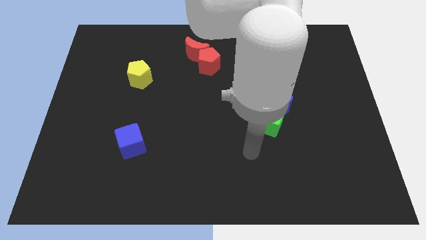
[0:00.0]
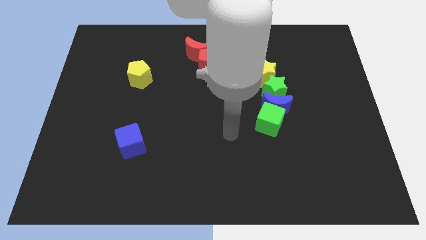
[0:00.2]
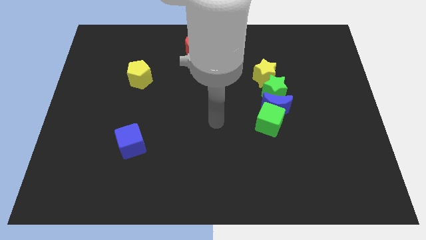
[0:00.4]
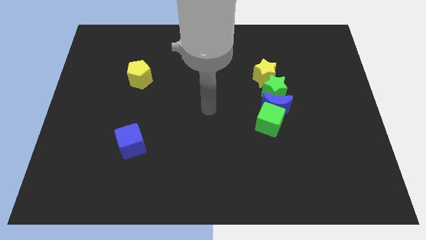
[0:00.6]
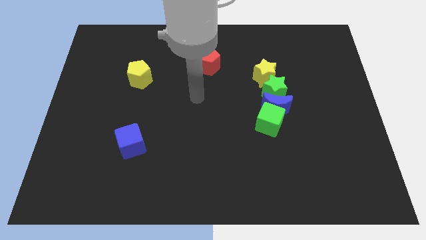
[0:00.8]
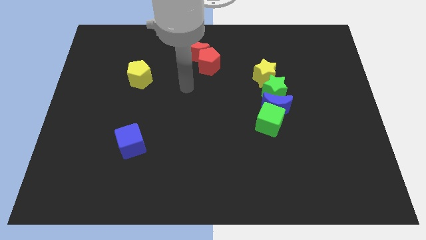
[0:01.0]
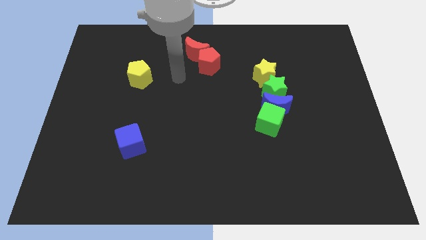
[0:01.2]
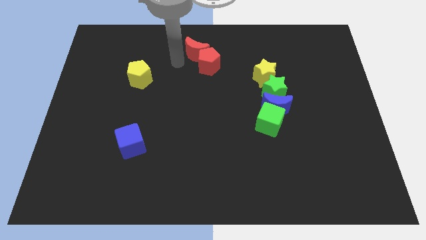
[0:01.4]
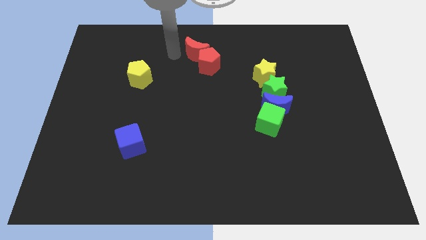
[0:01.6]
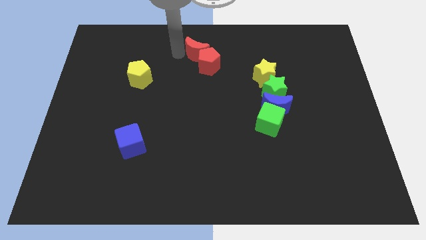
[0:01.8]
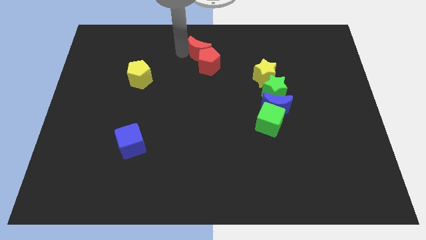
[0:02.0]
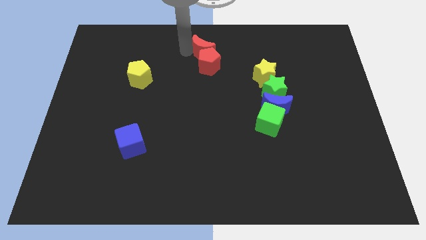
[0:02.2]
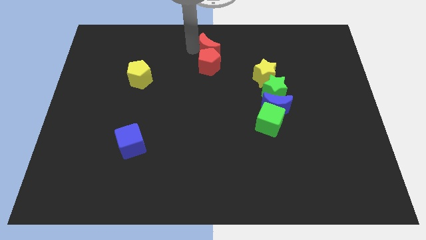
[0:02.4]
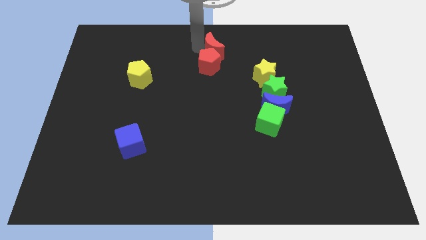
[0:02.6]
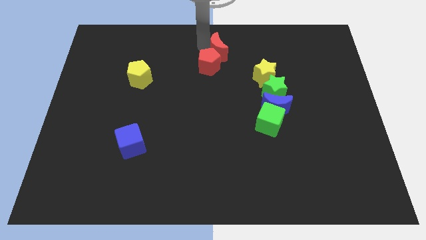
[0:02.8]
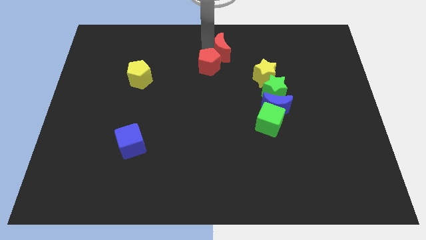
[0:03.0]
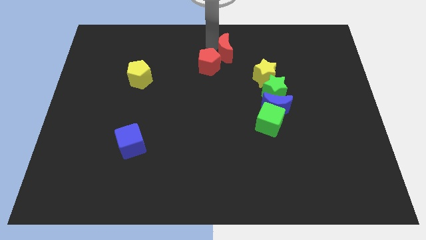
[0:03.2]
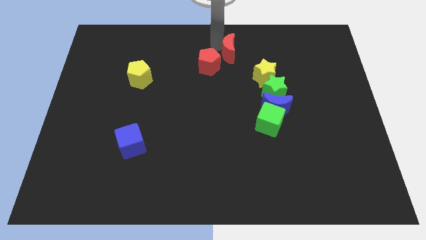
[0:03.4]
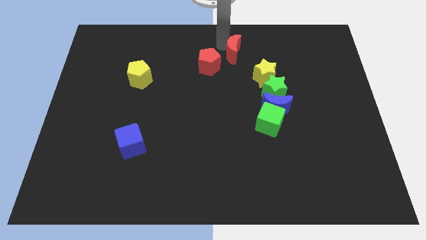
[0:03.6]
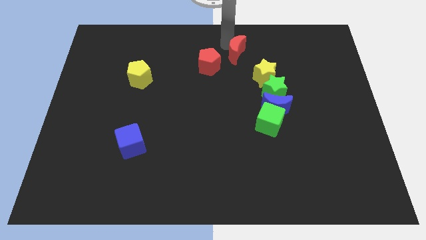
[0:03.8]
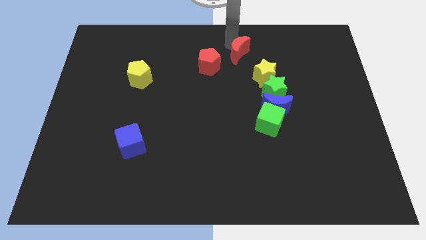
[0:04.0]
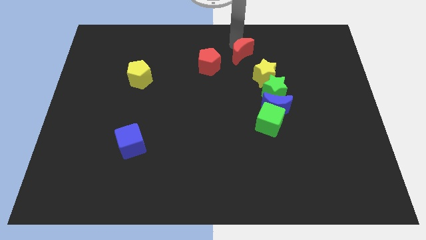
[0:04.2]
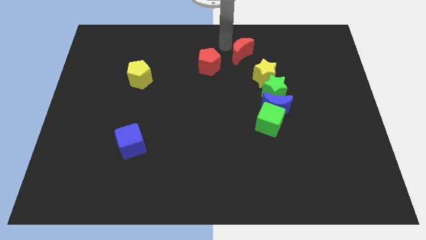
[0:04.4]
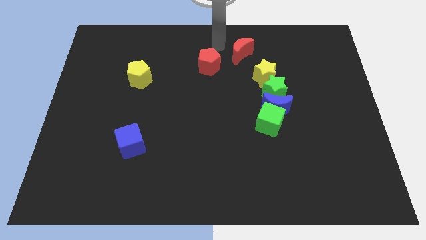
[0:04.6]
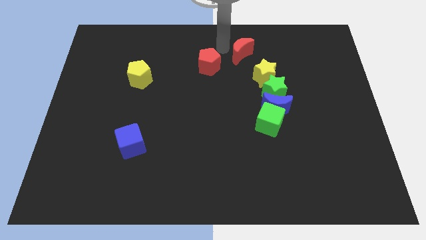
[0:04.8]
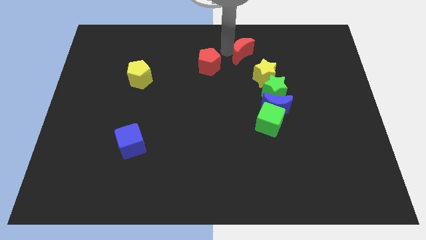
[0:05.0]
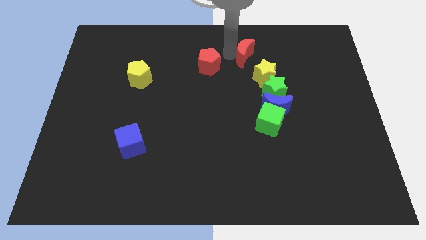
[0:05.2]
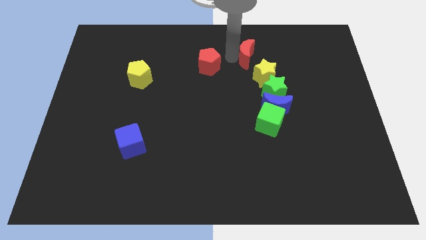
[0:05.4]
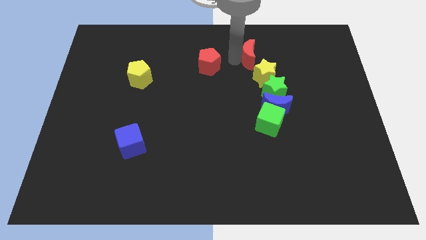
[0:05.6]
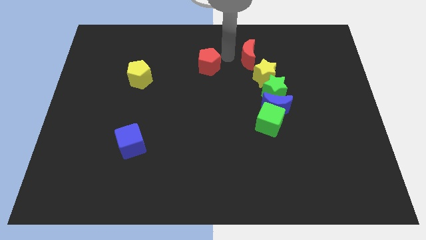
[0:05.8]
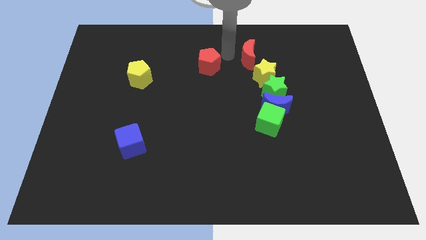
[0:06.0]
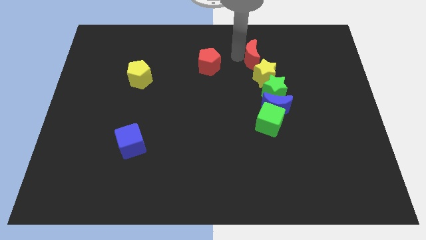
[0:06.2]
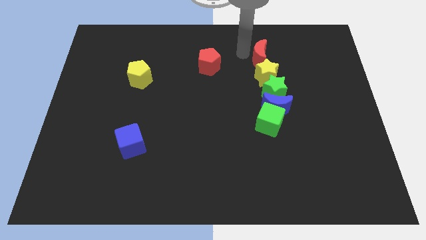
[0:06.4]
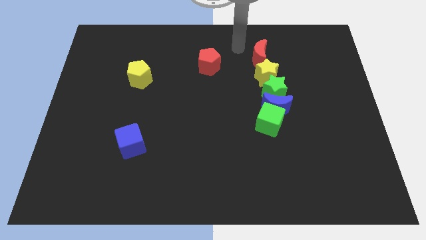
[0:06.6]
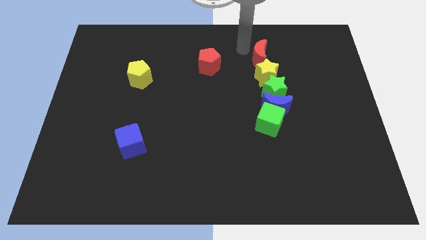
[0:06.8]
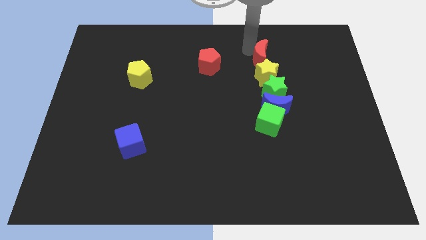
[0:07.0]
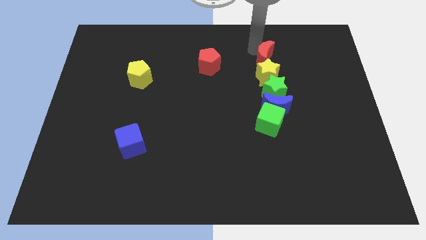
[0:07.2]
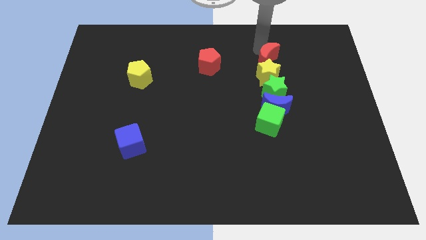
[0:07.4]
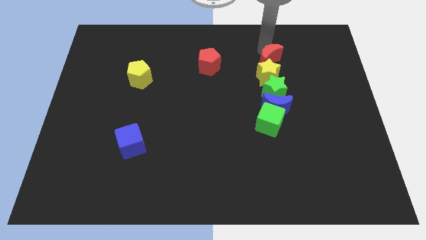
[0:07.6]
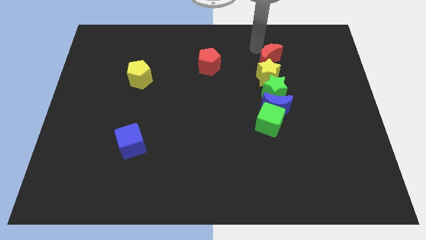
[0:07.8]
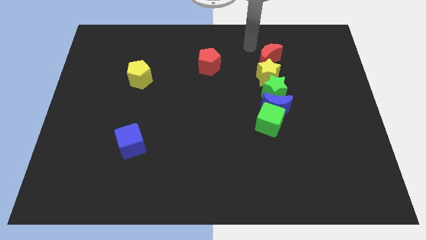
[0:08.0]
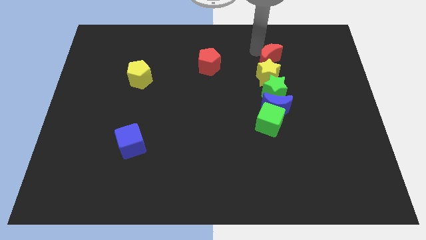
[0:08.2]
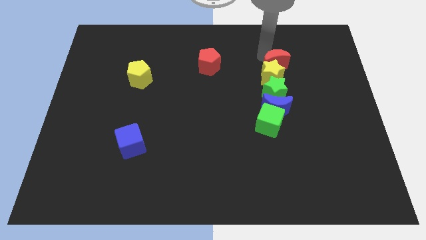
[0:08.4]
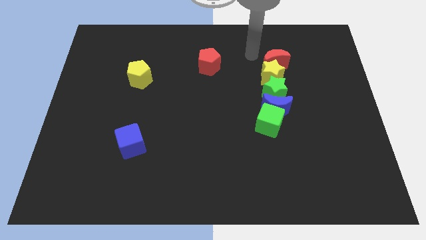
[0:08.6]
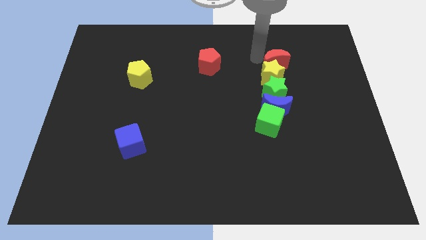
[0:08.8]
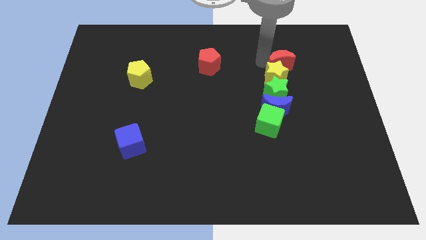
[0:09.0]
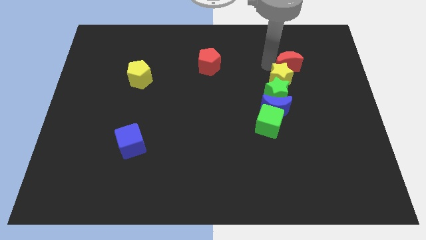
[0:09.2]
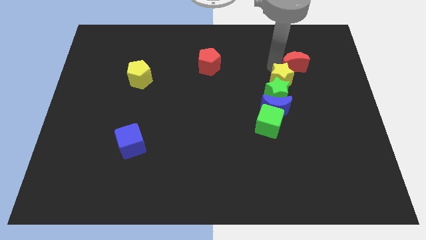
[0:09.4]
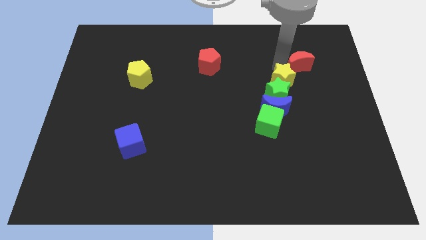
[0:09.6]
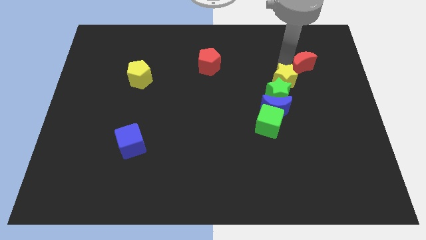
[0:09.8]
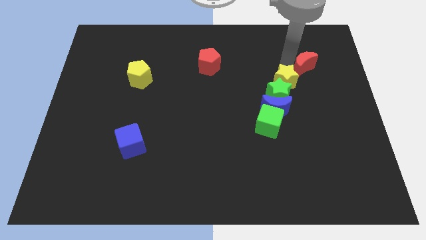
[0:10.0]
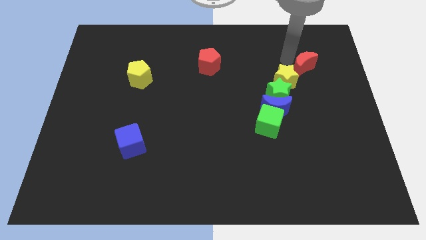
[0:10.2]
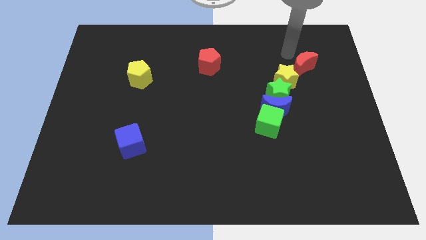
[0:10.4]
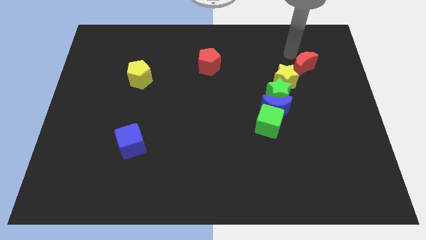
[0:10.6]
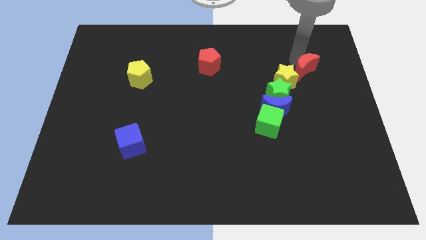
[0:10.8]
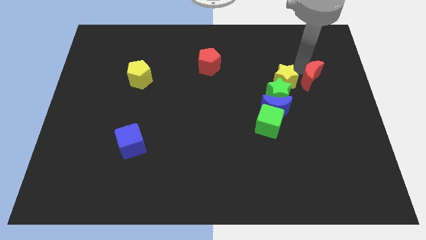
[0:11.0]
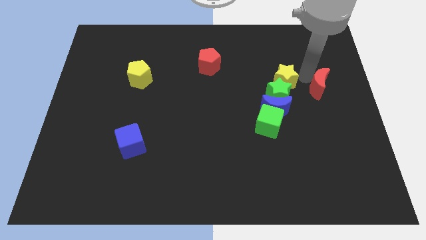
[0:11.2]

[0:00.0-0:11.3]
move the red moon to the center right
